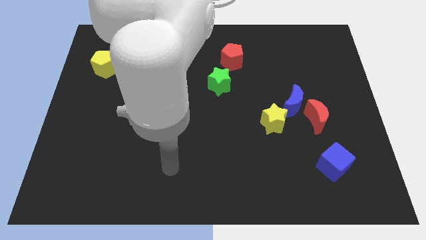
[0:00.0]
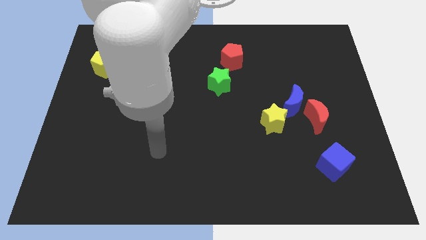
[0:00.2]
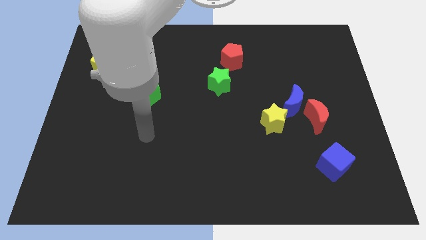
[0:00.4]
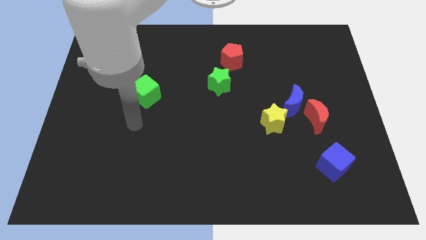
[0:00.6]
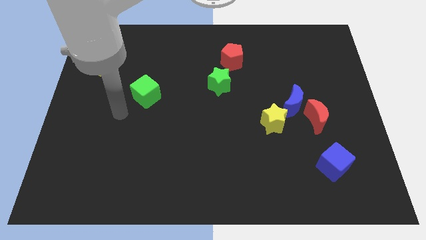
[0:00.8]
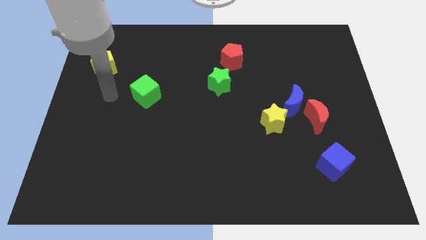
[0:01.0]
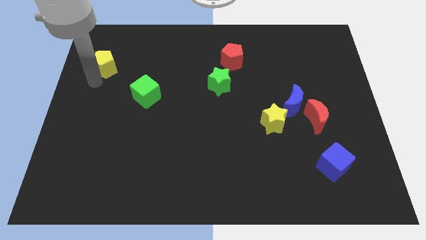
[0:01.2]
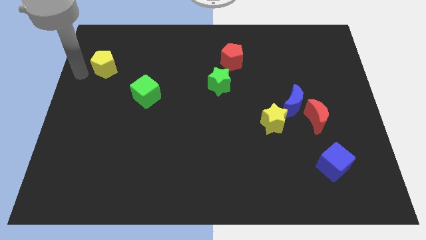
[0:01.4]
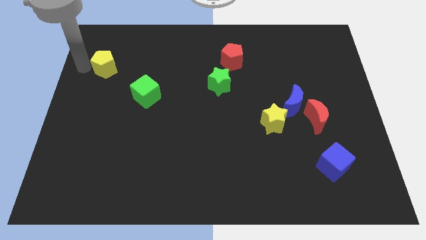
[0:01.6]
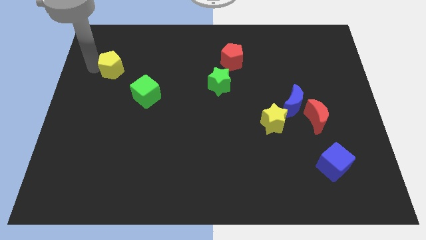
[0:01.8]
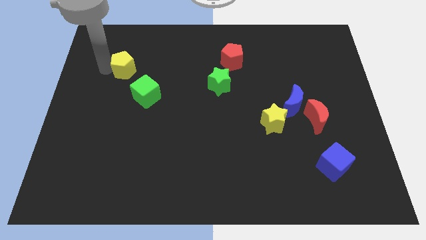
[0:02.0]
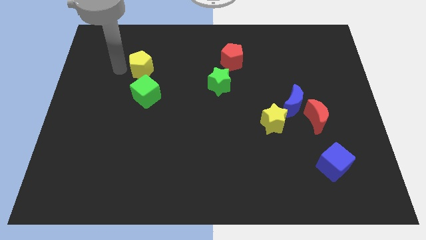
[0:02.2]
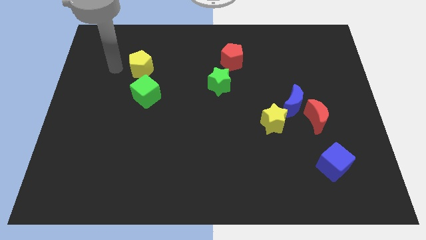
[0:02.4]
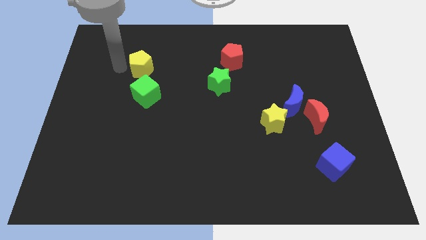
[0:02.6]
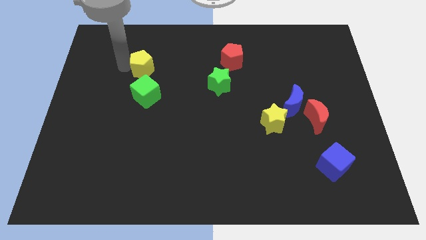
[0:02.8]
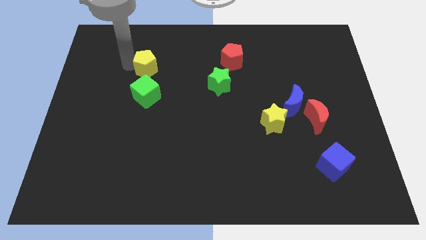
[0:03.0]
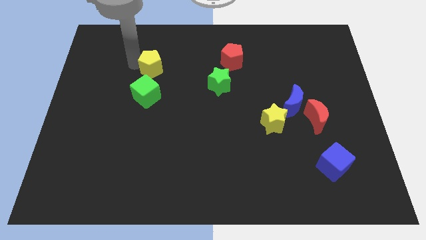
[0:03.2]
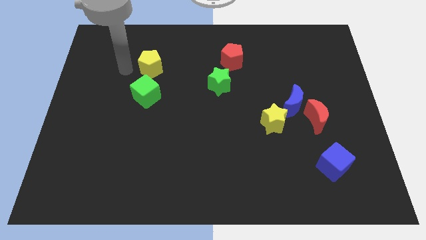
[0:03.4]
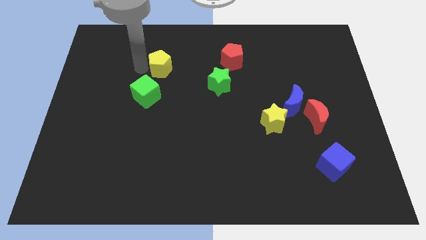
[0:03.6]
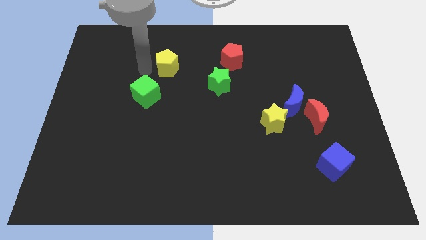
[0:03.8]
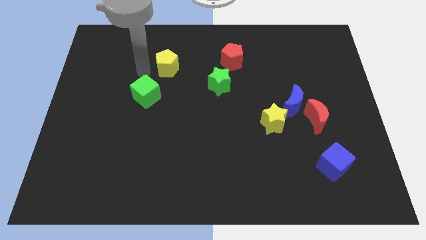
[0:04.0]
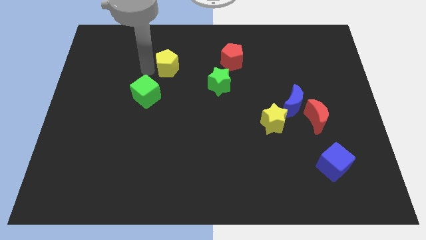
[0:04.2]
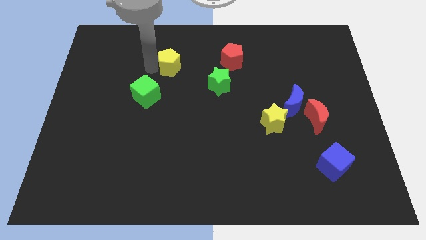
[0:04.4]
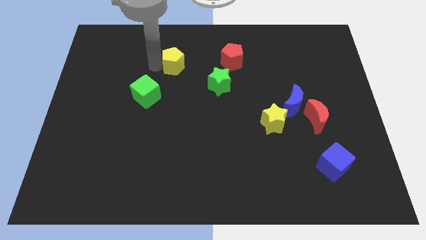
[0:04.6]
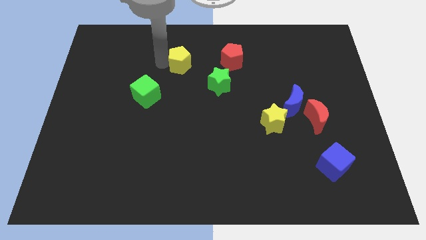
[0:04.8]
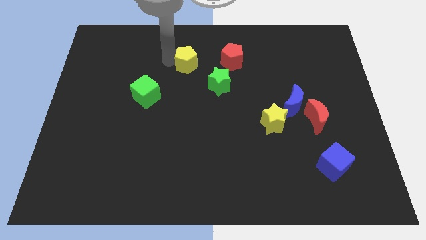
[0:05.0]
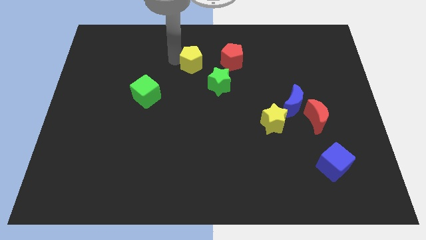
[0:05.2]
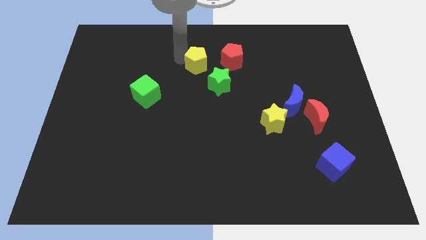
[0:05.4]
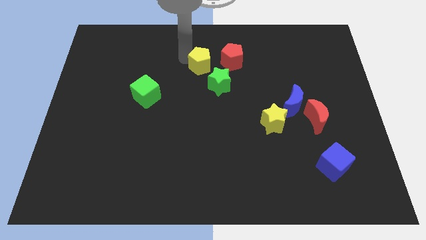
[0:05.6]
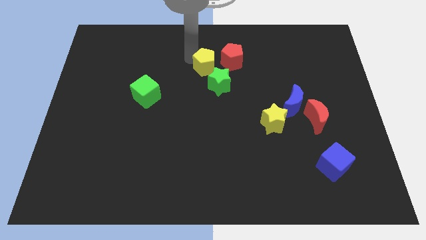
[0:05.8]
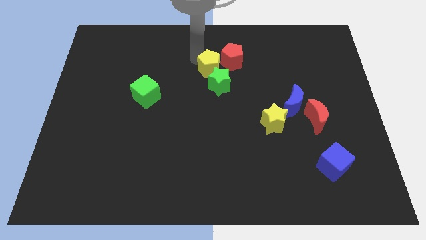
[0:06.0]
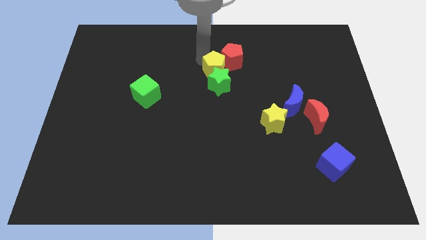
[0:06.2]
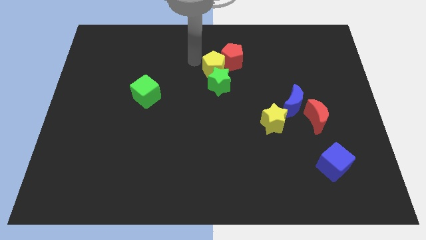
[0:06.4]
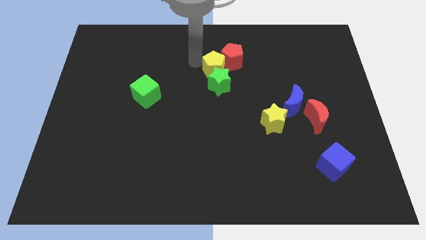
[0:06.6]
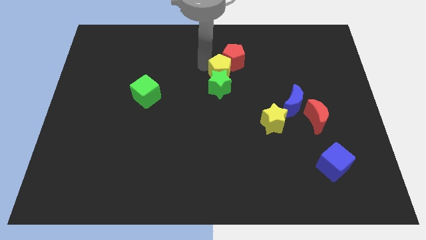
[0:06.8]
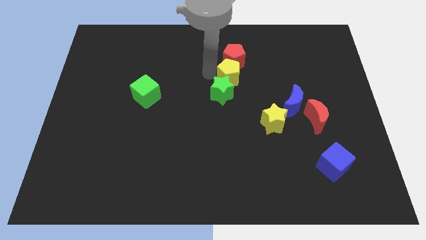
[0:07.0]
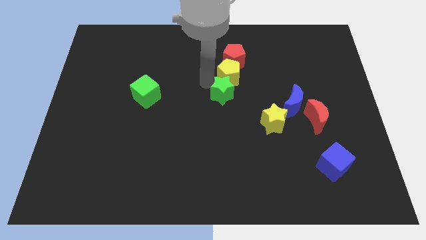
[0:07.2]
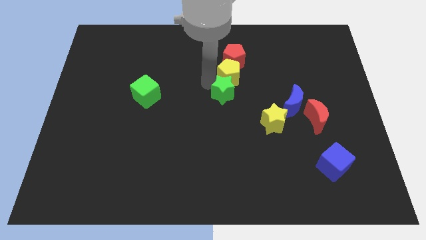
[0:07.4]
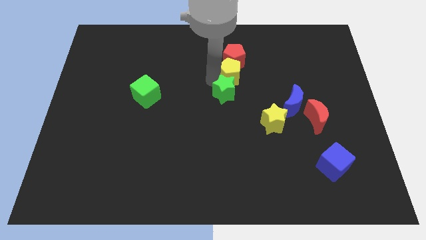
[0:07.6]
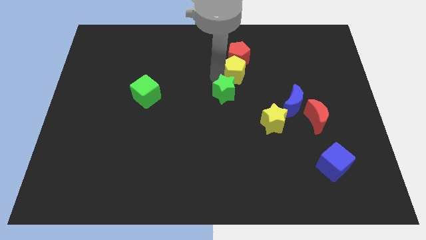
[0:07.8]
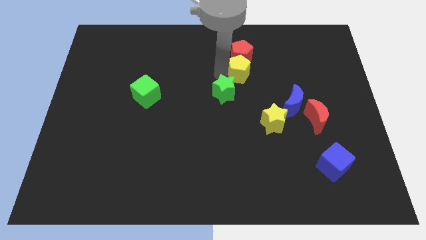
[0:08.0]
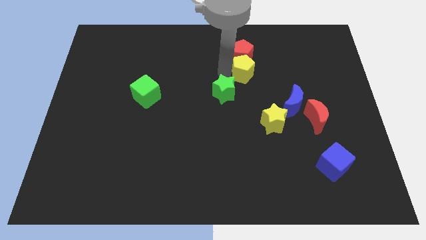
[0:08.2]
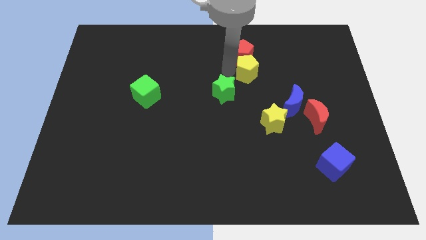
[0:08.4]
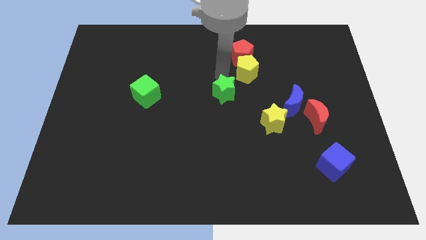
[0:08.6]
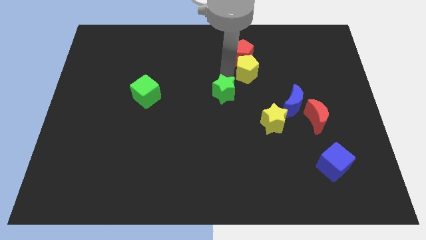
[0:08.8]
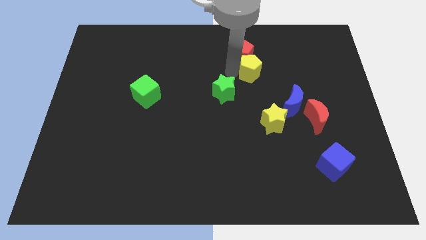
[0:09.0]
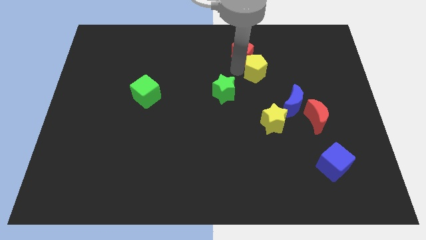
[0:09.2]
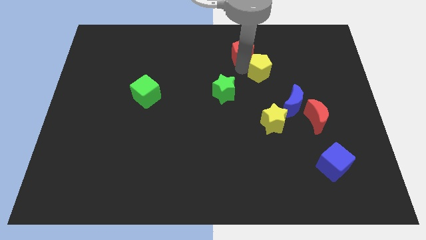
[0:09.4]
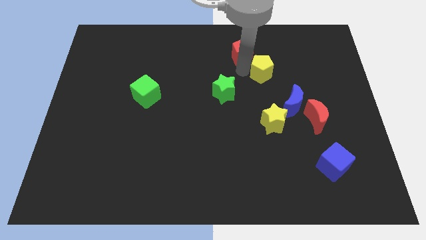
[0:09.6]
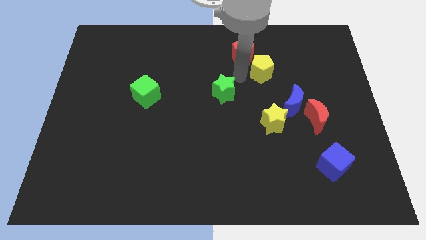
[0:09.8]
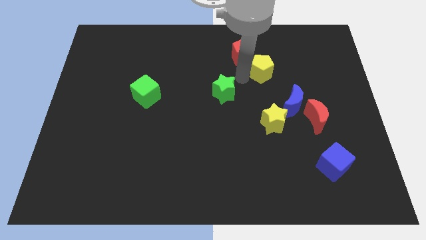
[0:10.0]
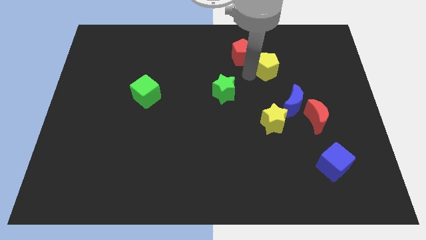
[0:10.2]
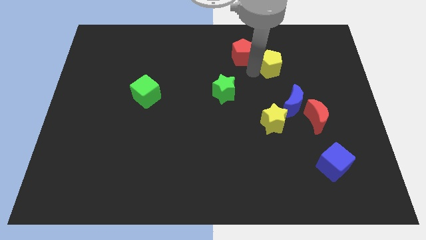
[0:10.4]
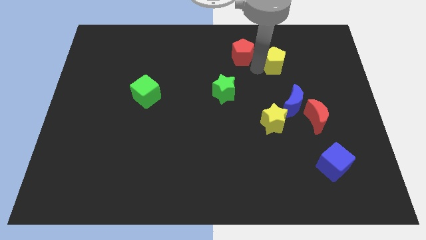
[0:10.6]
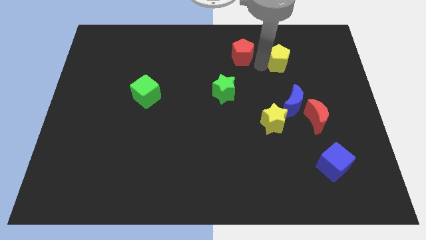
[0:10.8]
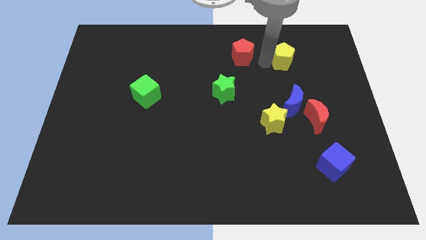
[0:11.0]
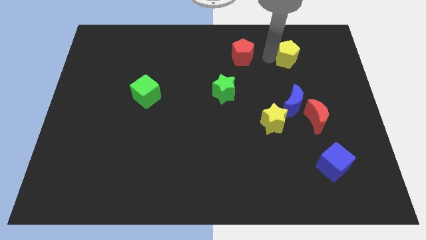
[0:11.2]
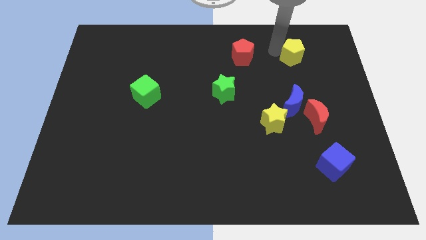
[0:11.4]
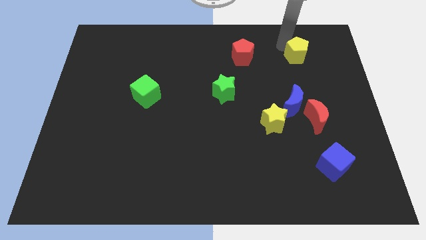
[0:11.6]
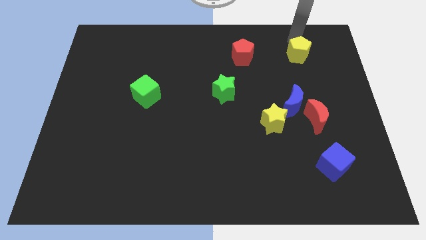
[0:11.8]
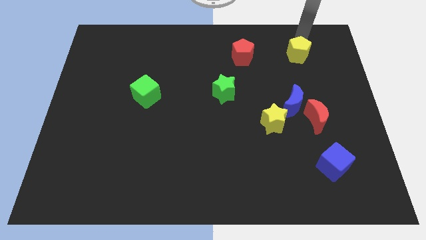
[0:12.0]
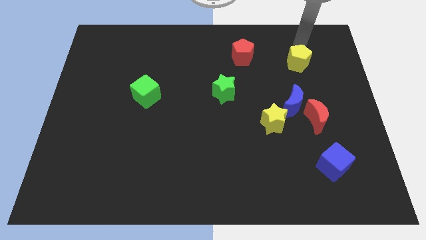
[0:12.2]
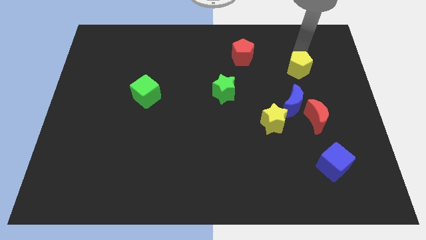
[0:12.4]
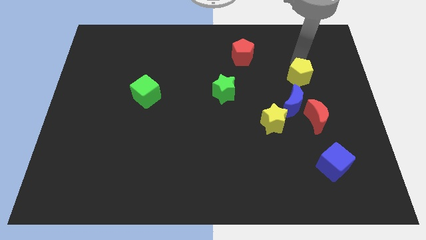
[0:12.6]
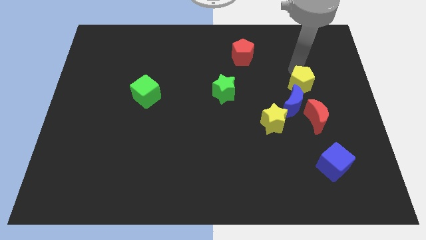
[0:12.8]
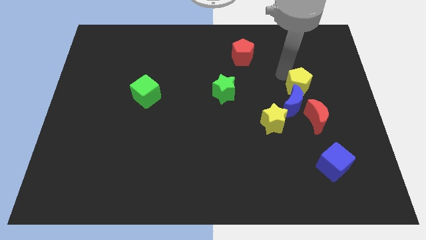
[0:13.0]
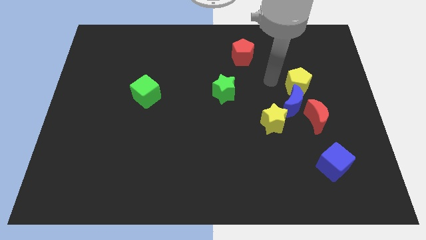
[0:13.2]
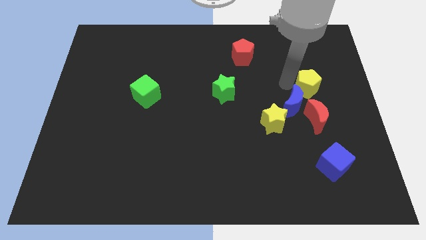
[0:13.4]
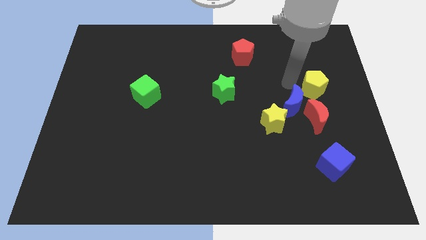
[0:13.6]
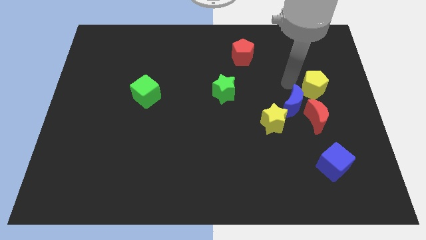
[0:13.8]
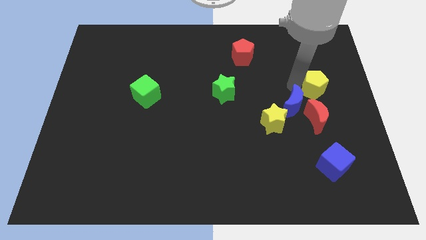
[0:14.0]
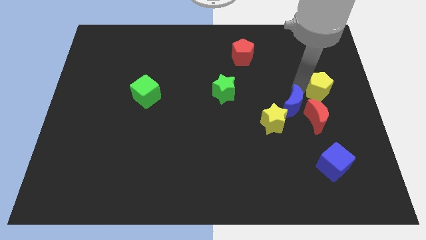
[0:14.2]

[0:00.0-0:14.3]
move the yellow pentagon to the center right
